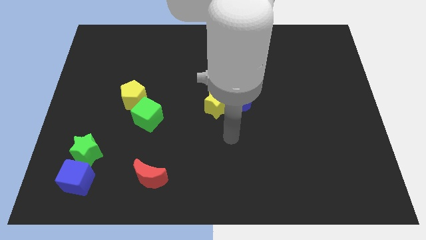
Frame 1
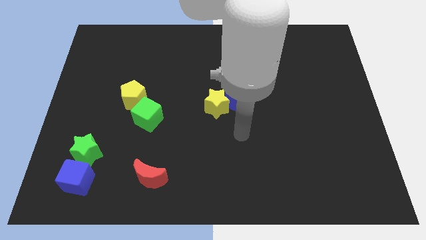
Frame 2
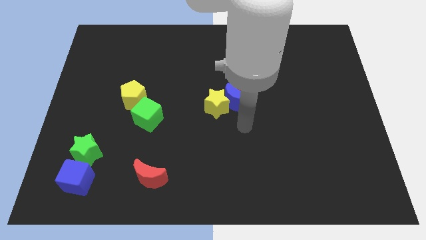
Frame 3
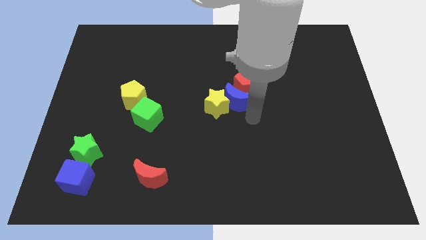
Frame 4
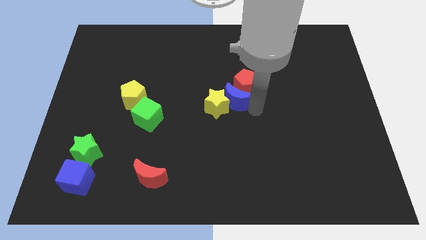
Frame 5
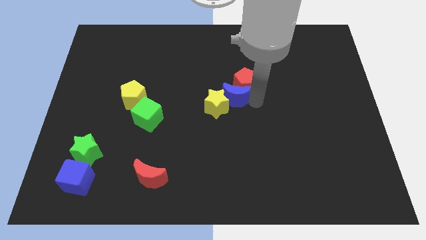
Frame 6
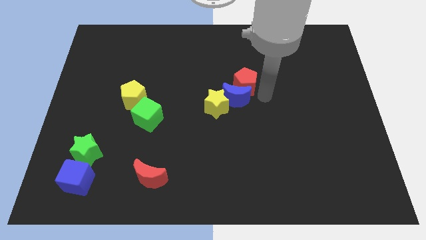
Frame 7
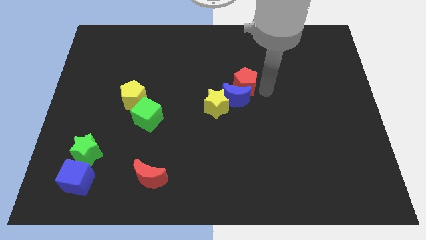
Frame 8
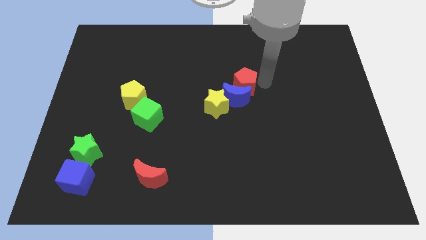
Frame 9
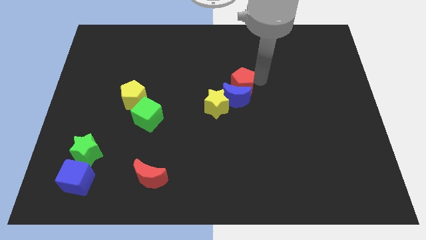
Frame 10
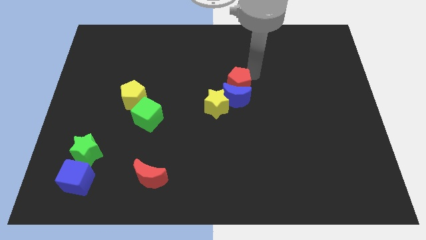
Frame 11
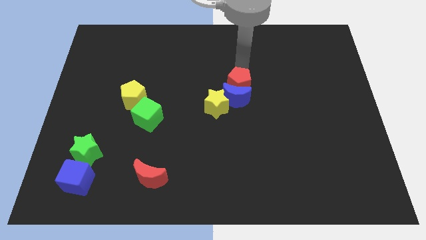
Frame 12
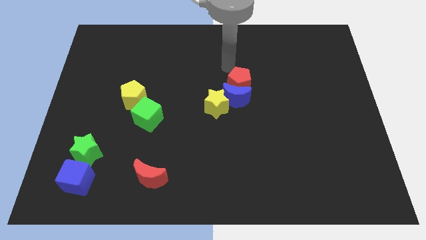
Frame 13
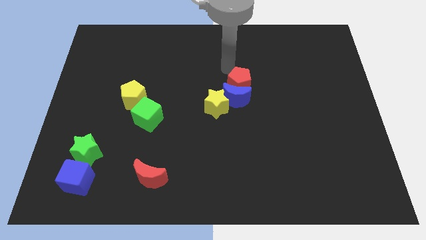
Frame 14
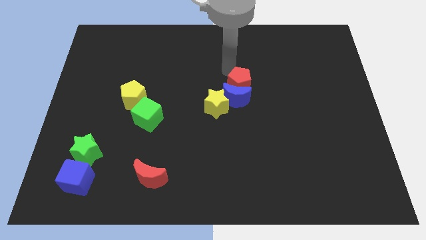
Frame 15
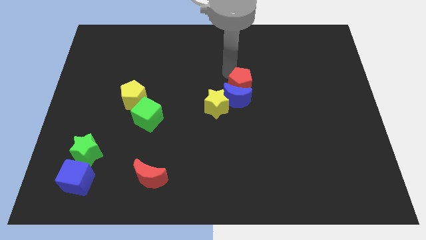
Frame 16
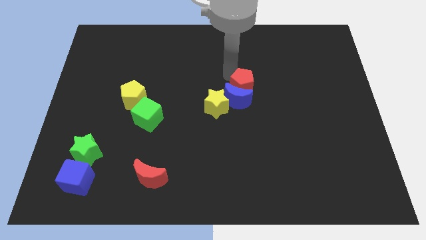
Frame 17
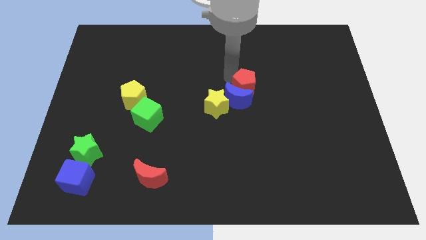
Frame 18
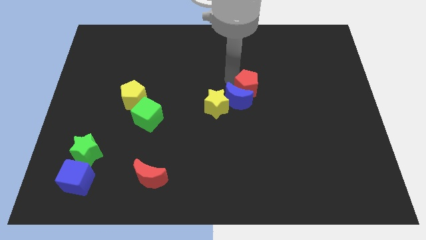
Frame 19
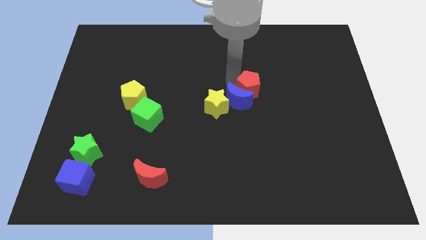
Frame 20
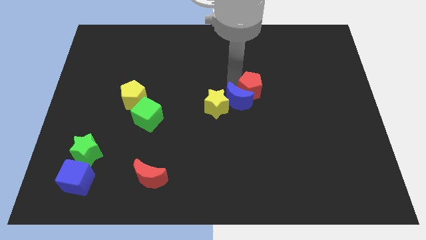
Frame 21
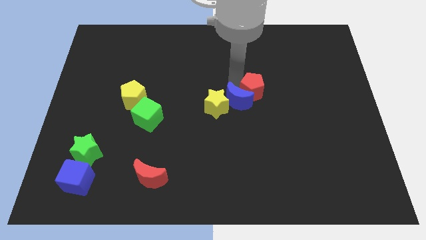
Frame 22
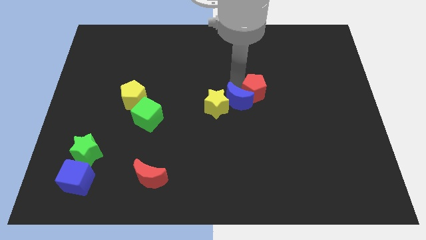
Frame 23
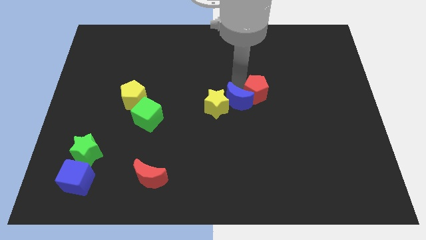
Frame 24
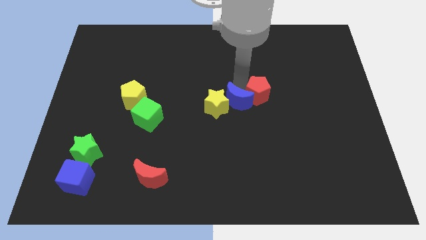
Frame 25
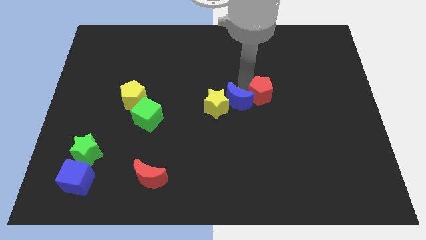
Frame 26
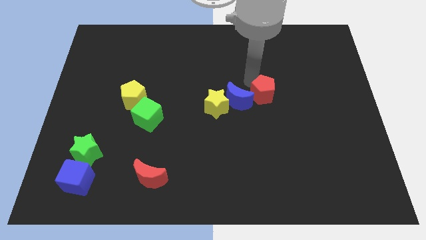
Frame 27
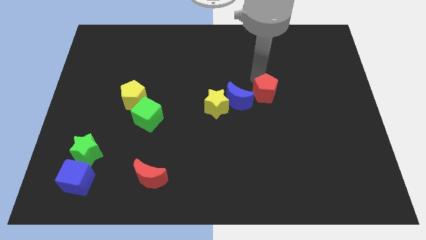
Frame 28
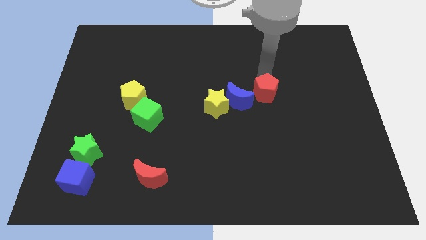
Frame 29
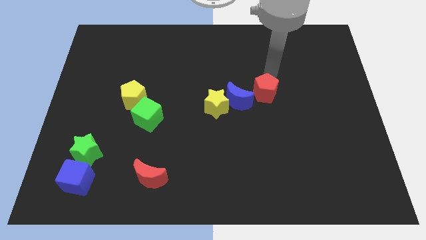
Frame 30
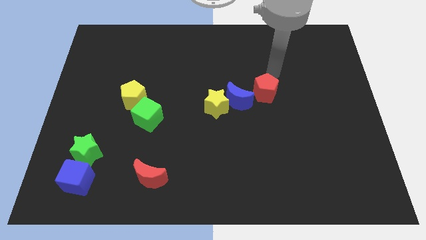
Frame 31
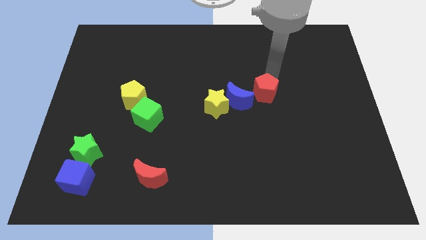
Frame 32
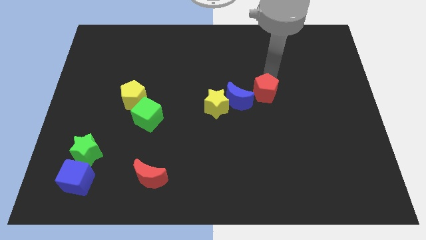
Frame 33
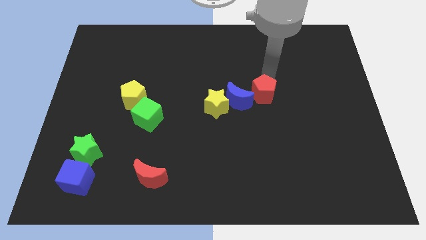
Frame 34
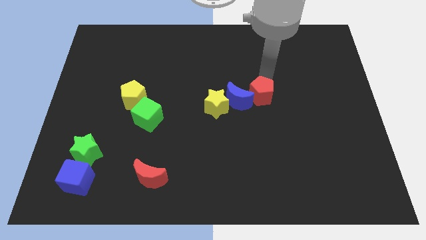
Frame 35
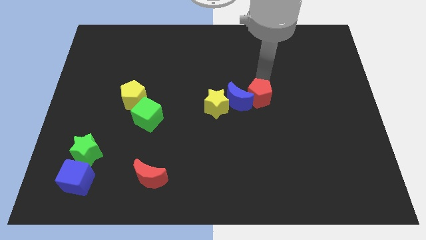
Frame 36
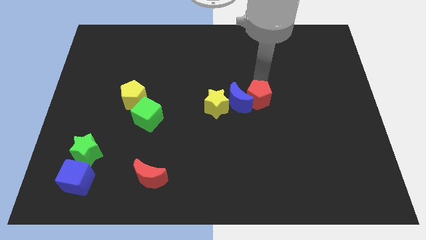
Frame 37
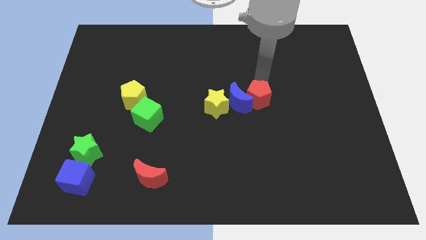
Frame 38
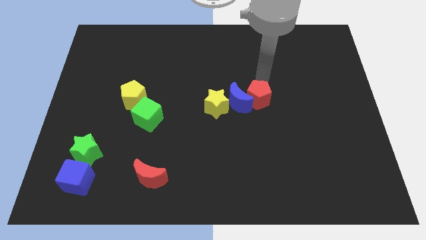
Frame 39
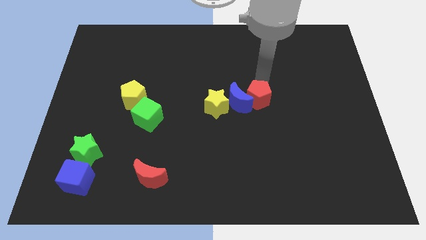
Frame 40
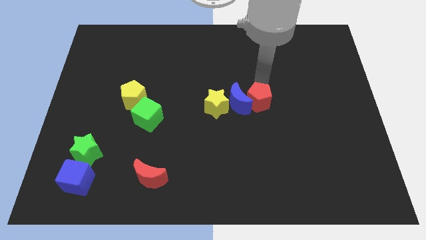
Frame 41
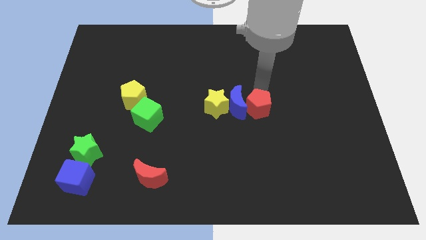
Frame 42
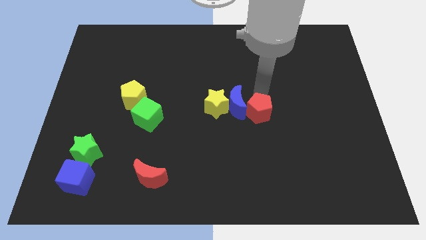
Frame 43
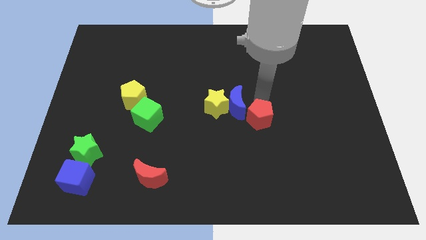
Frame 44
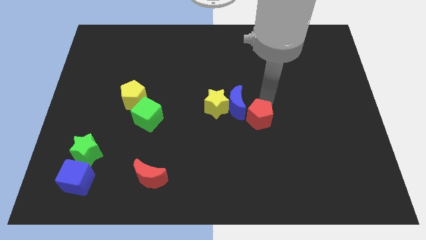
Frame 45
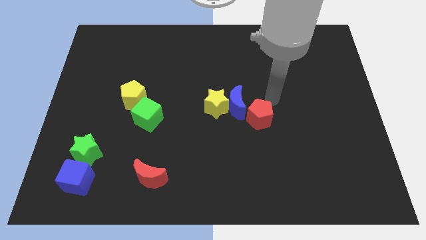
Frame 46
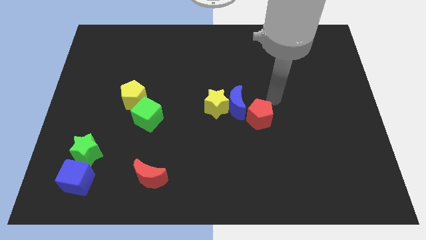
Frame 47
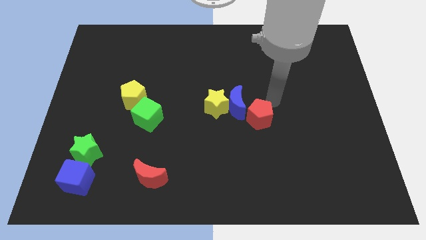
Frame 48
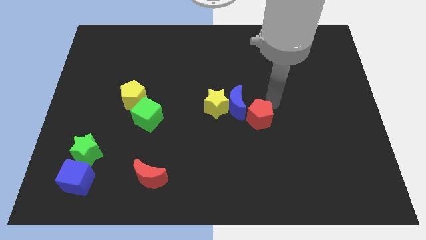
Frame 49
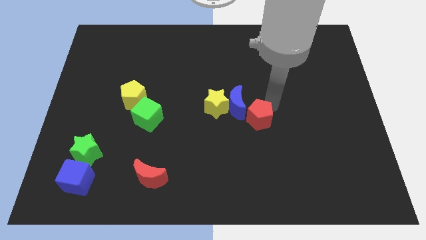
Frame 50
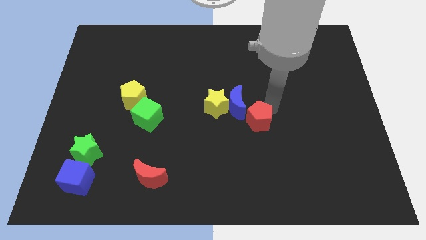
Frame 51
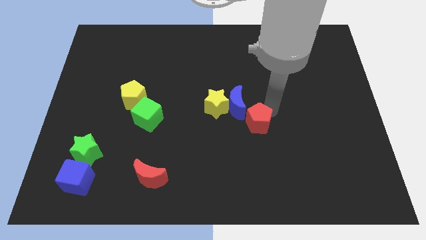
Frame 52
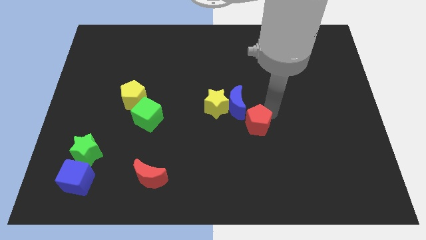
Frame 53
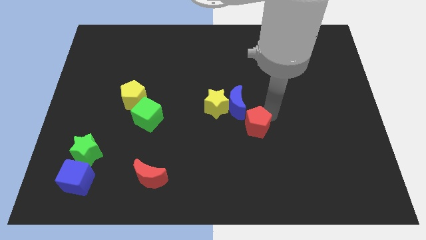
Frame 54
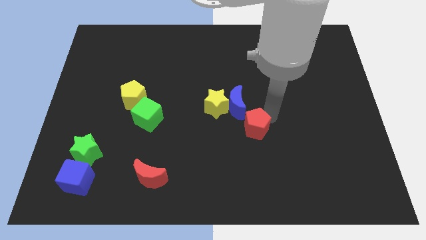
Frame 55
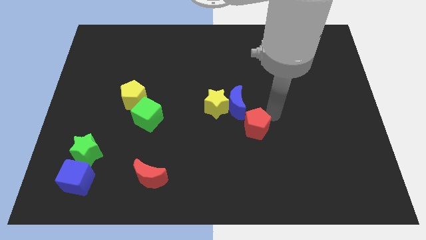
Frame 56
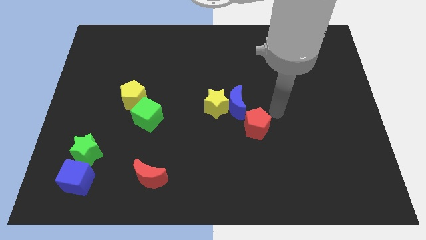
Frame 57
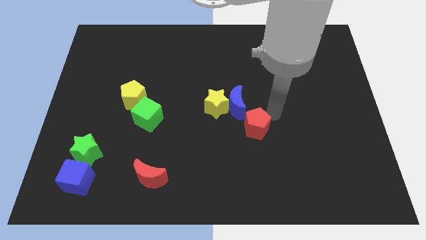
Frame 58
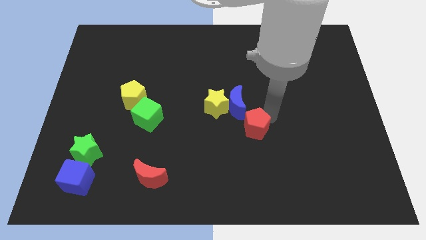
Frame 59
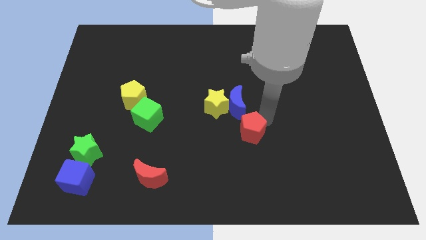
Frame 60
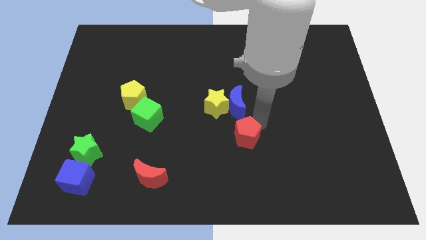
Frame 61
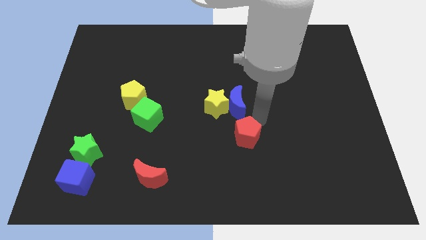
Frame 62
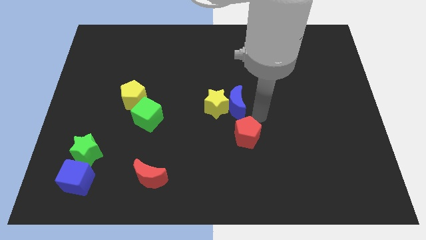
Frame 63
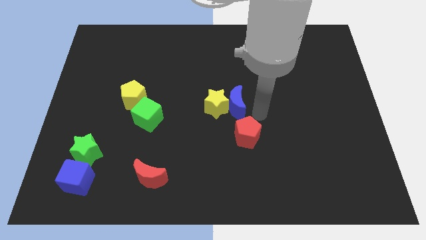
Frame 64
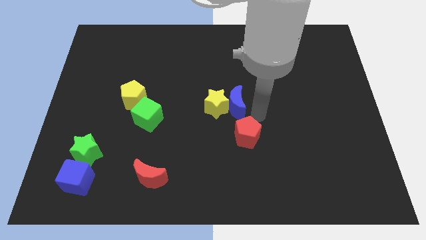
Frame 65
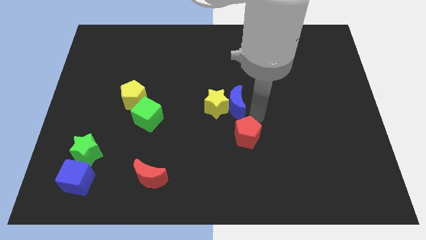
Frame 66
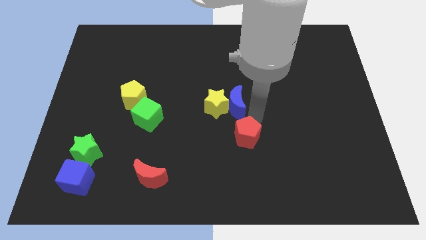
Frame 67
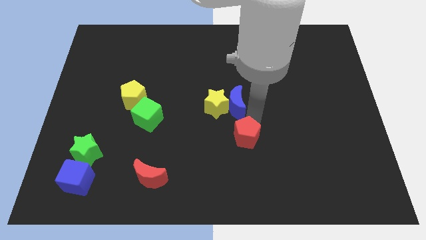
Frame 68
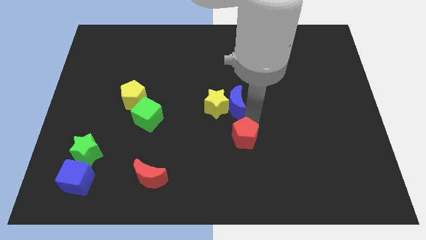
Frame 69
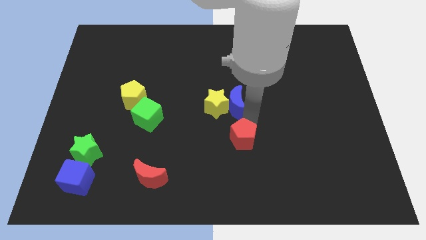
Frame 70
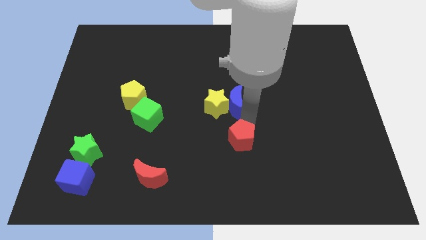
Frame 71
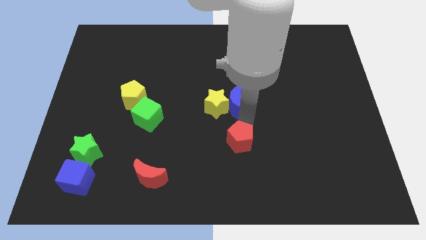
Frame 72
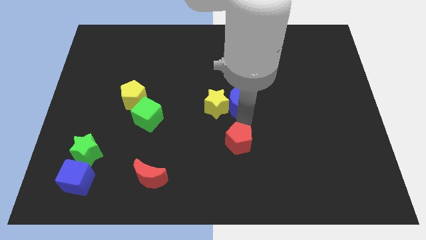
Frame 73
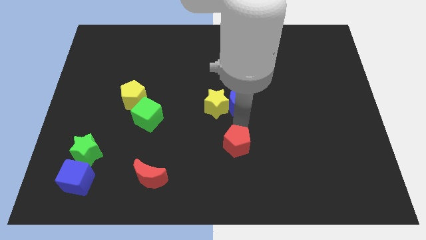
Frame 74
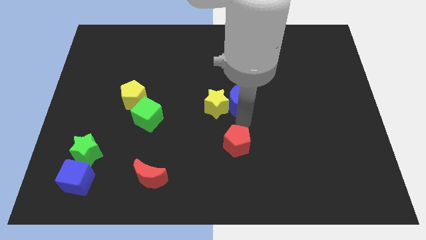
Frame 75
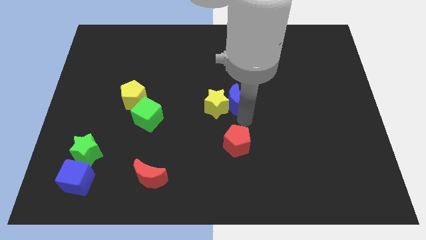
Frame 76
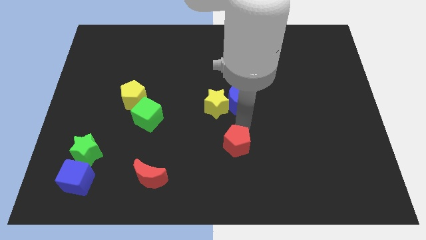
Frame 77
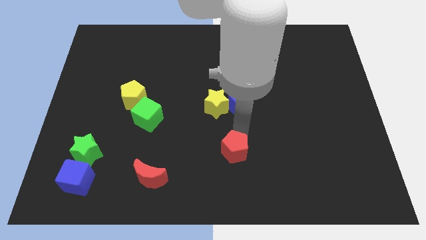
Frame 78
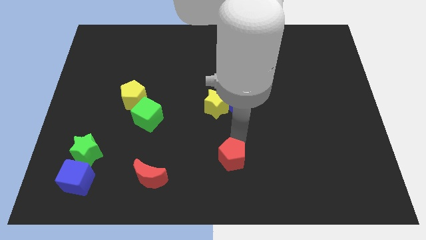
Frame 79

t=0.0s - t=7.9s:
push the red pentagon to the bottom side
